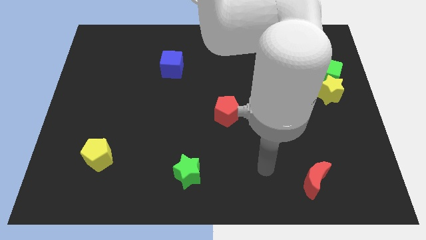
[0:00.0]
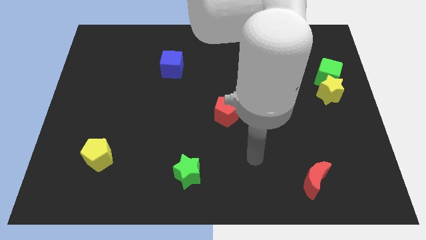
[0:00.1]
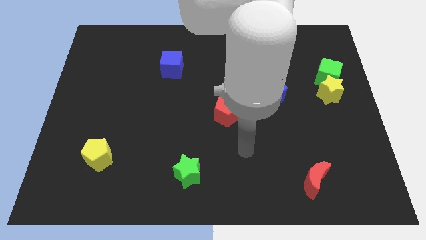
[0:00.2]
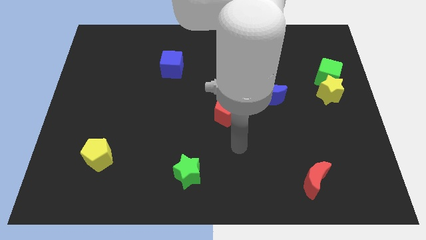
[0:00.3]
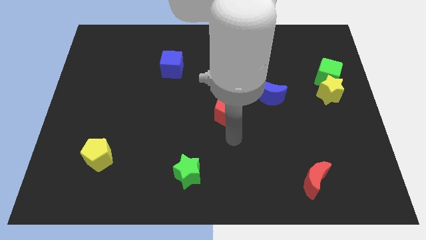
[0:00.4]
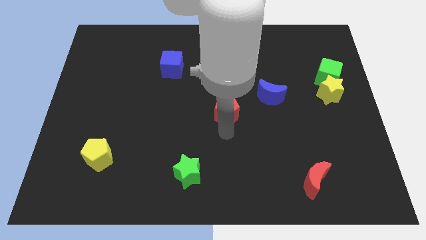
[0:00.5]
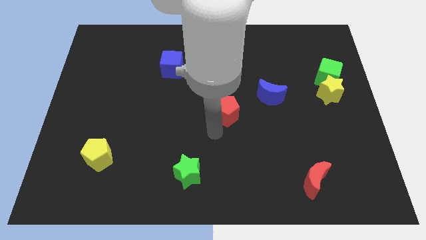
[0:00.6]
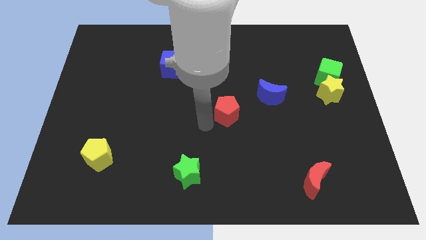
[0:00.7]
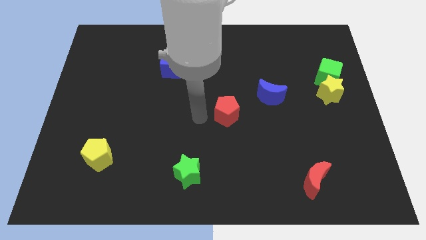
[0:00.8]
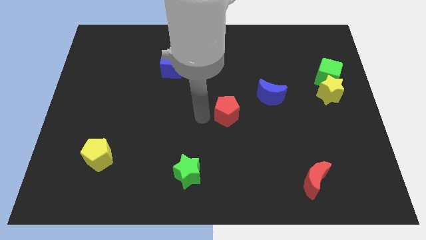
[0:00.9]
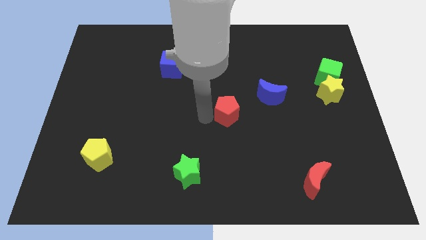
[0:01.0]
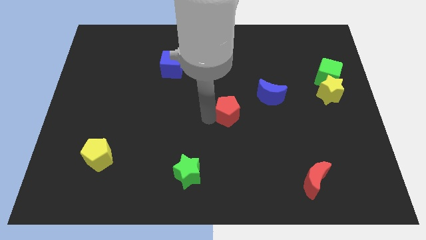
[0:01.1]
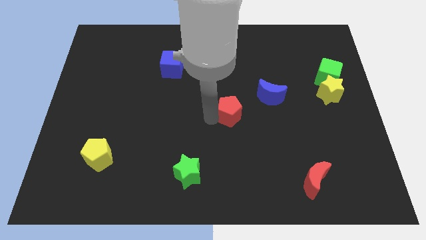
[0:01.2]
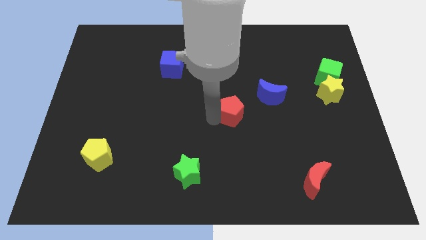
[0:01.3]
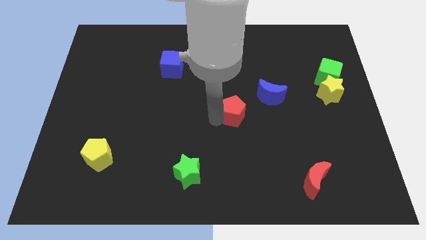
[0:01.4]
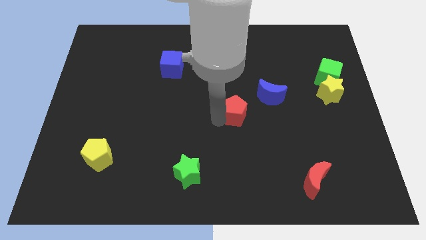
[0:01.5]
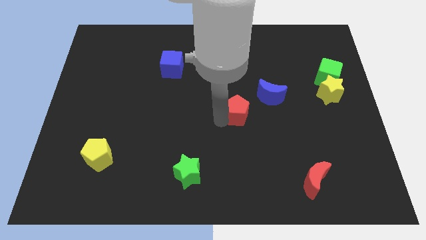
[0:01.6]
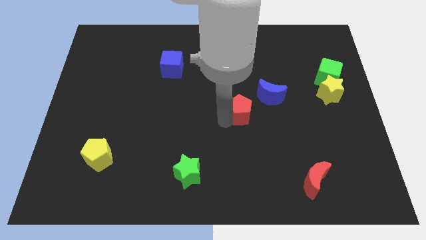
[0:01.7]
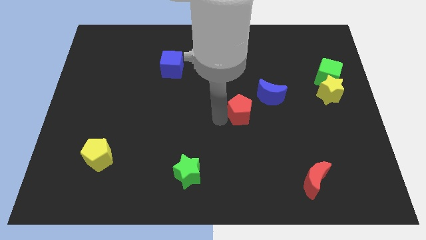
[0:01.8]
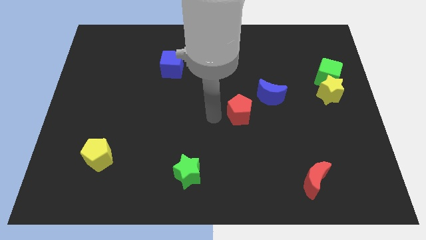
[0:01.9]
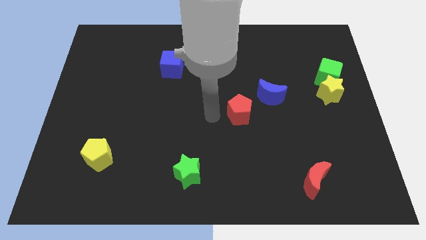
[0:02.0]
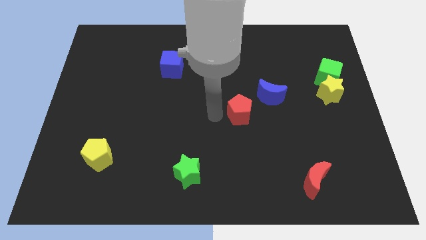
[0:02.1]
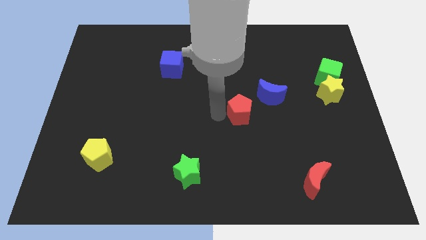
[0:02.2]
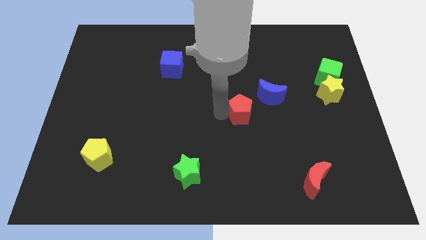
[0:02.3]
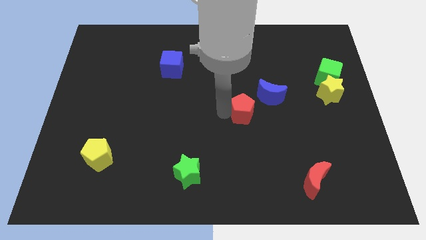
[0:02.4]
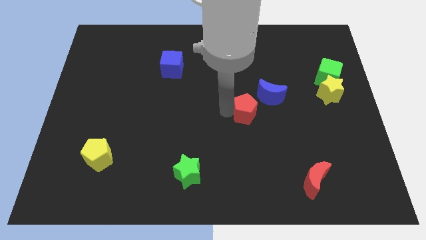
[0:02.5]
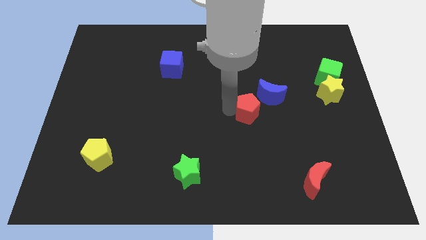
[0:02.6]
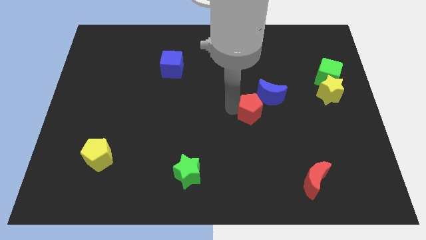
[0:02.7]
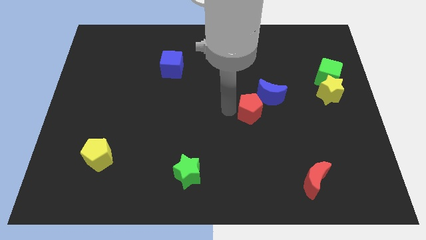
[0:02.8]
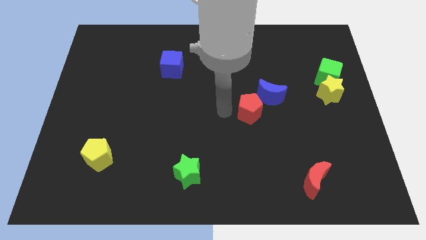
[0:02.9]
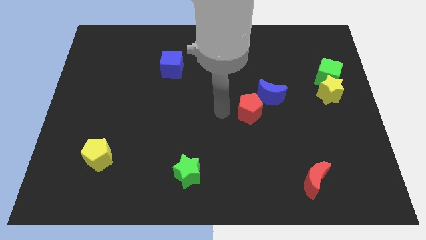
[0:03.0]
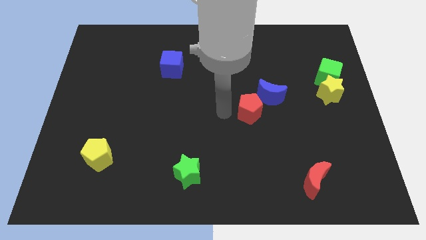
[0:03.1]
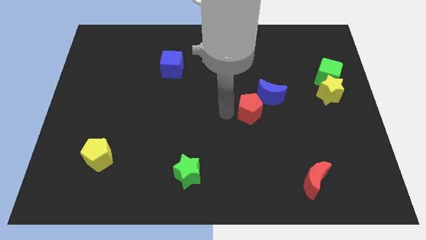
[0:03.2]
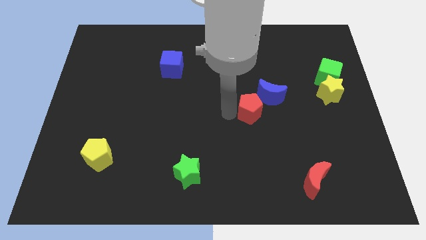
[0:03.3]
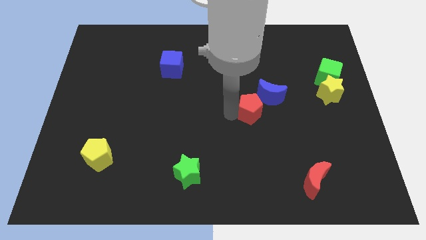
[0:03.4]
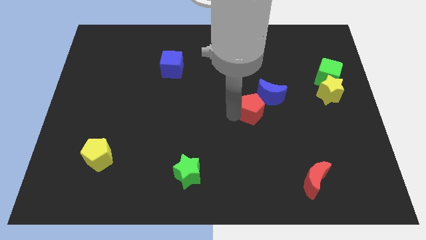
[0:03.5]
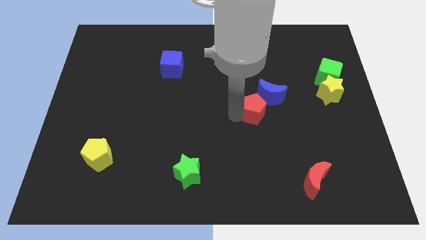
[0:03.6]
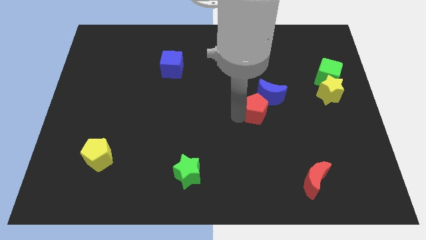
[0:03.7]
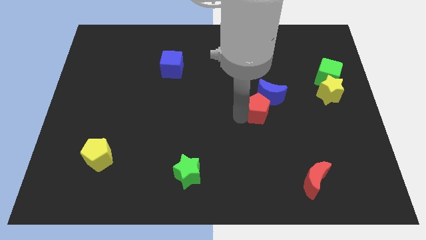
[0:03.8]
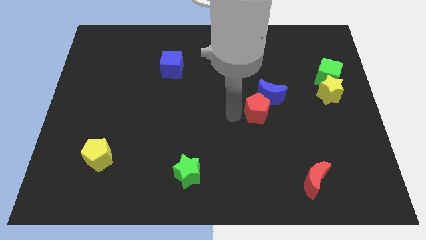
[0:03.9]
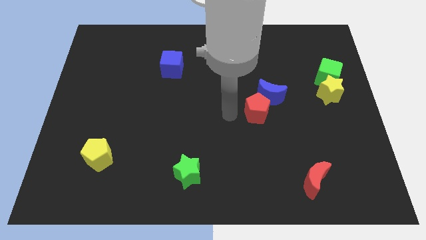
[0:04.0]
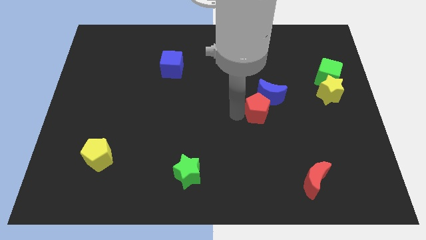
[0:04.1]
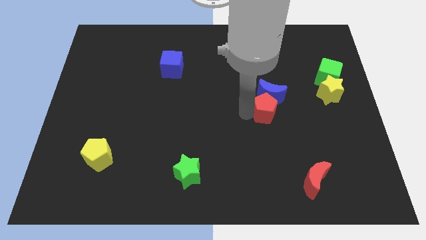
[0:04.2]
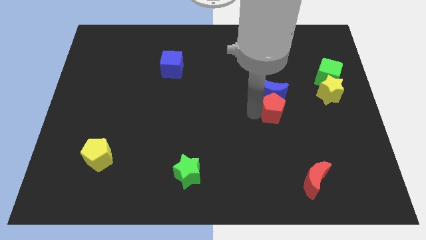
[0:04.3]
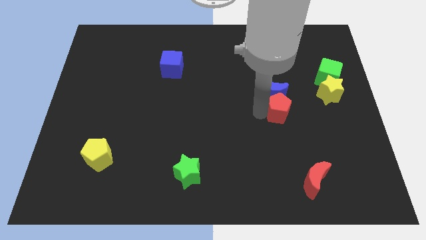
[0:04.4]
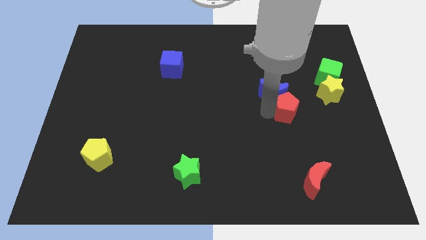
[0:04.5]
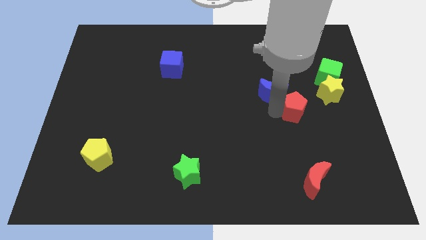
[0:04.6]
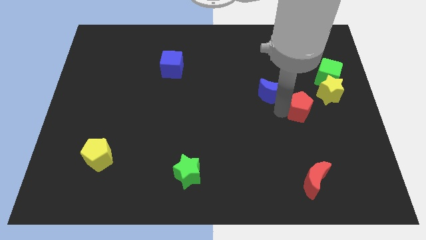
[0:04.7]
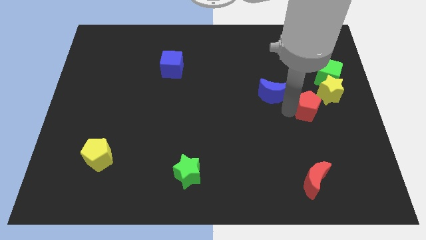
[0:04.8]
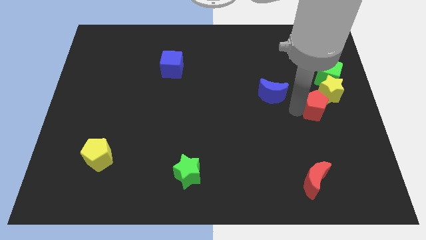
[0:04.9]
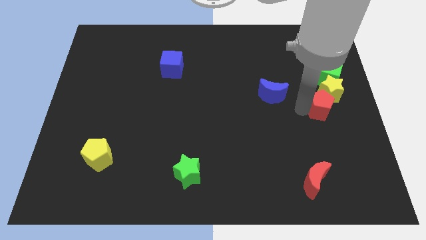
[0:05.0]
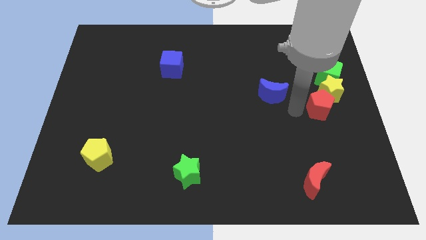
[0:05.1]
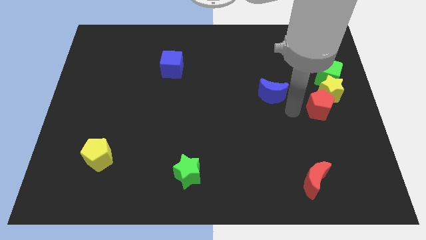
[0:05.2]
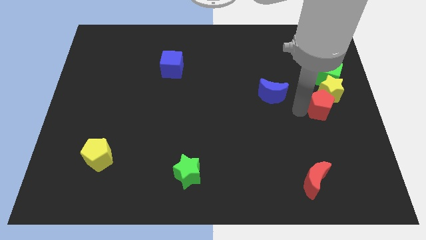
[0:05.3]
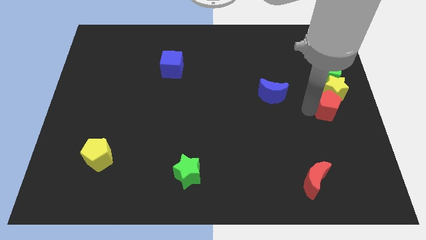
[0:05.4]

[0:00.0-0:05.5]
slide the red pentagon to the right side
